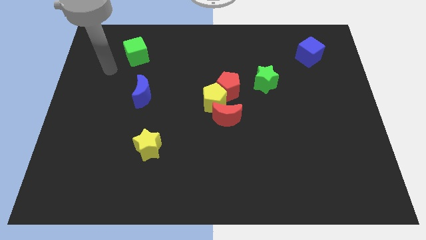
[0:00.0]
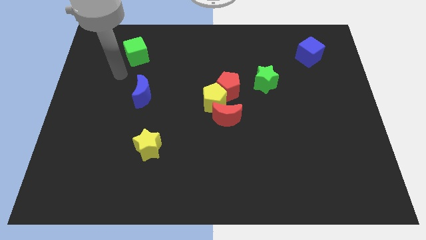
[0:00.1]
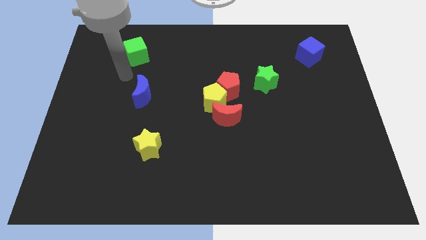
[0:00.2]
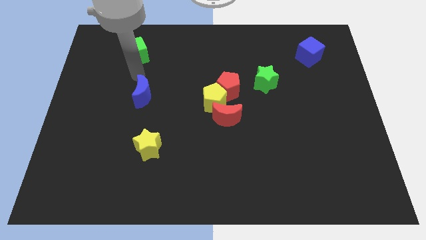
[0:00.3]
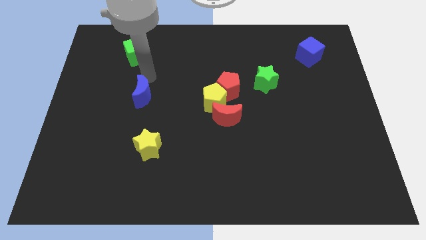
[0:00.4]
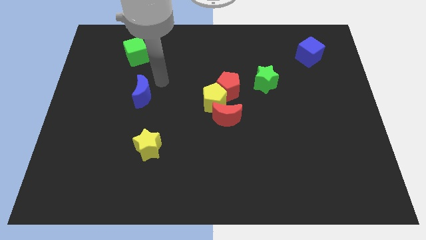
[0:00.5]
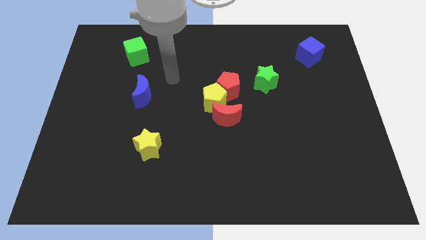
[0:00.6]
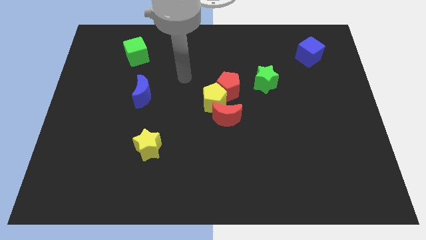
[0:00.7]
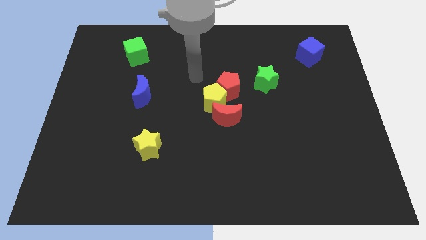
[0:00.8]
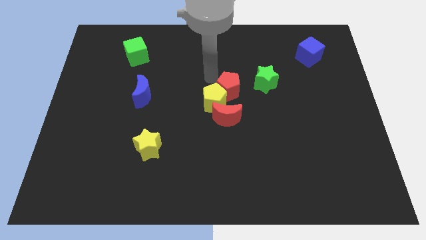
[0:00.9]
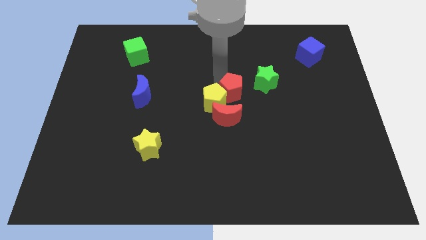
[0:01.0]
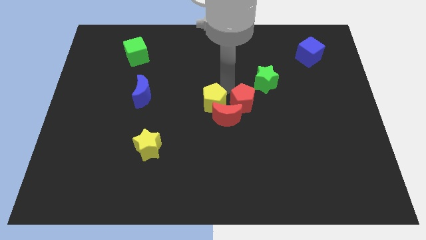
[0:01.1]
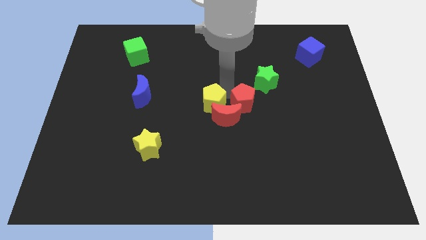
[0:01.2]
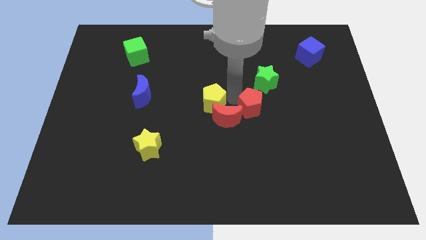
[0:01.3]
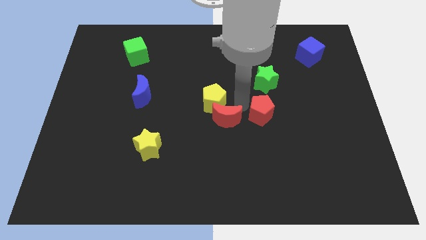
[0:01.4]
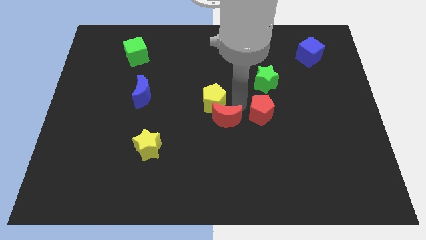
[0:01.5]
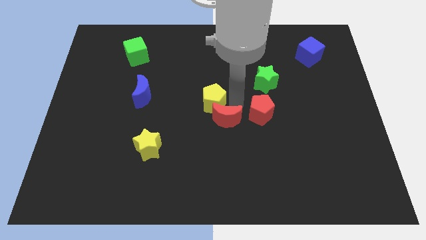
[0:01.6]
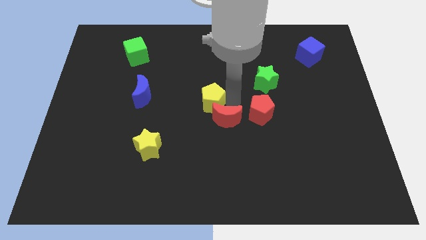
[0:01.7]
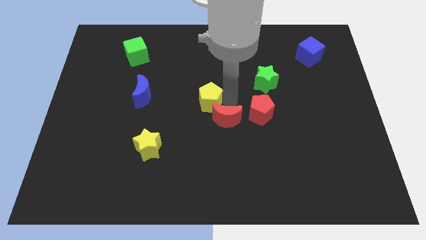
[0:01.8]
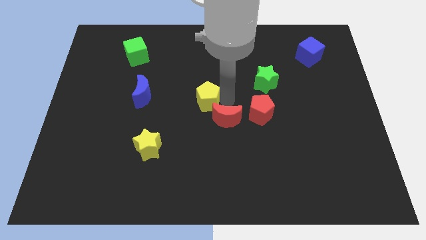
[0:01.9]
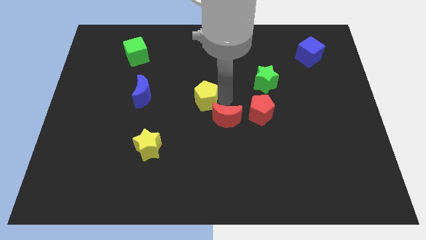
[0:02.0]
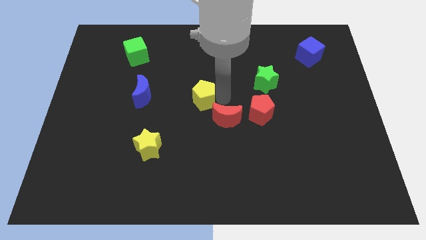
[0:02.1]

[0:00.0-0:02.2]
separate the yellow pentagon from the red pentagon and red moon

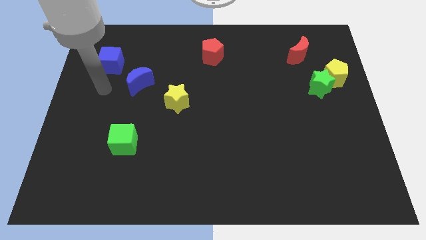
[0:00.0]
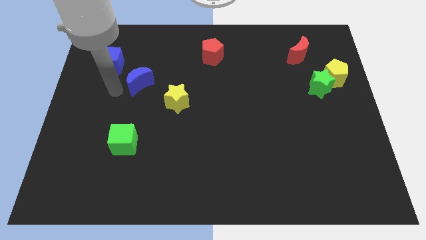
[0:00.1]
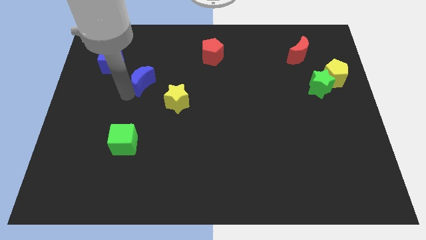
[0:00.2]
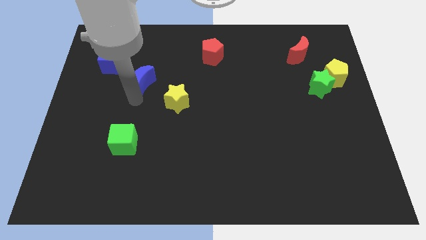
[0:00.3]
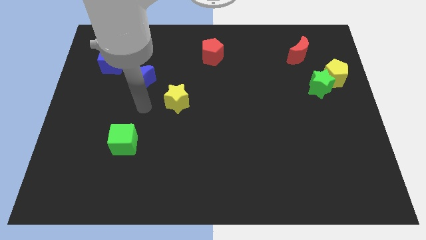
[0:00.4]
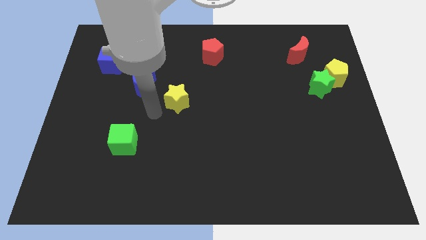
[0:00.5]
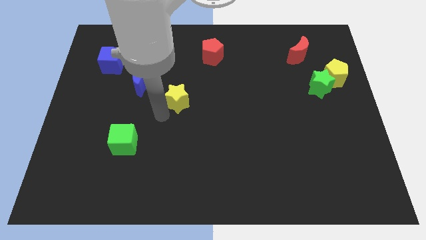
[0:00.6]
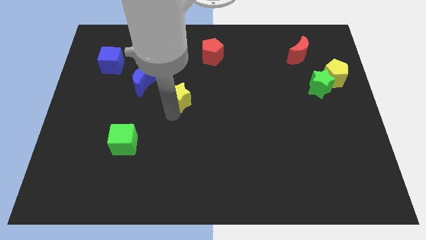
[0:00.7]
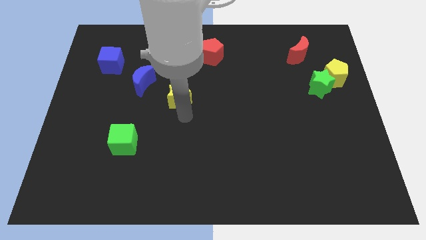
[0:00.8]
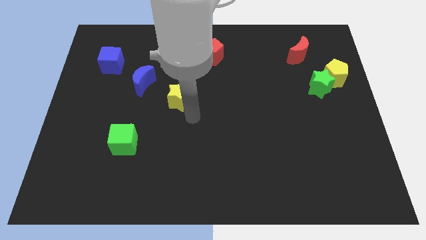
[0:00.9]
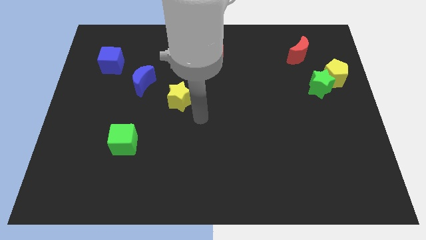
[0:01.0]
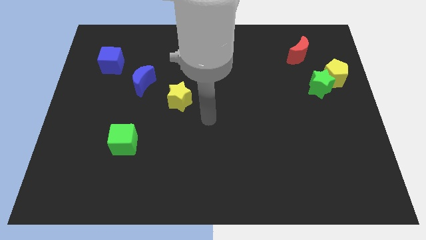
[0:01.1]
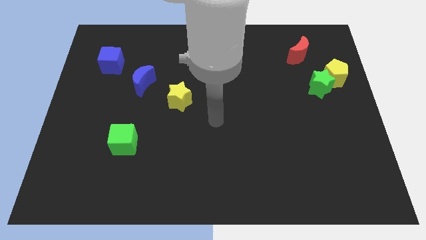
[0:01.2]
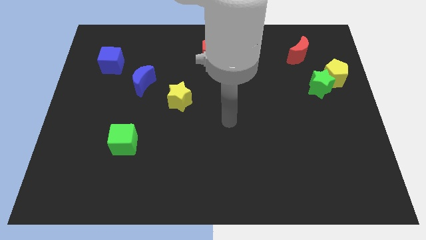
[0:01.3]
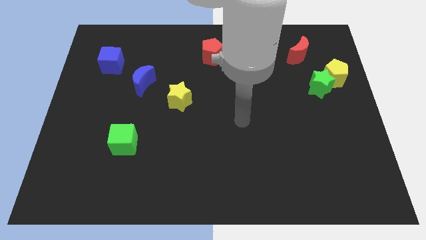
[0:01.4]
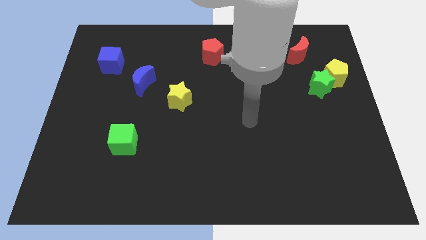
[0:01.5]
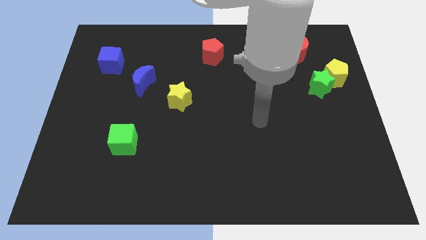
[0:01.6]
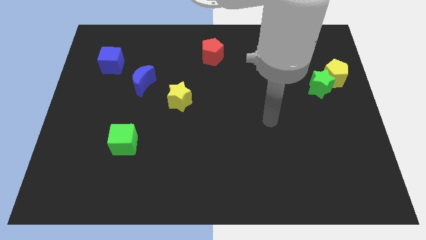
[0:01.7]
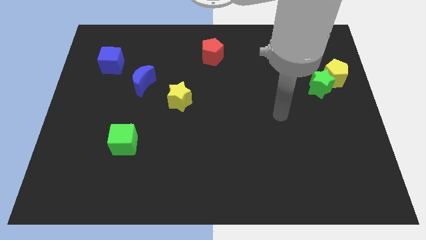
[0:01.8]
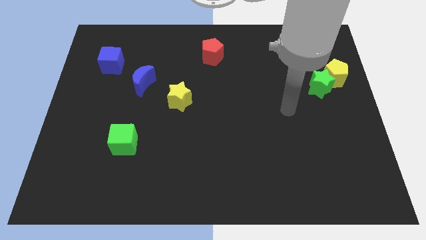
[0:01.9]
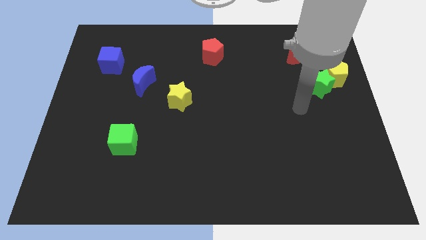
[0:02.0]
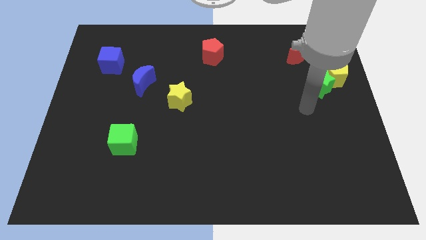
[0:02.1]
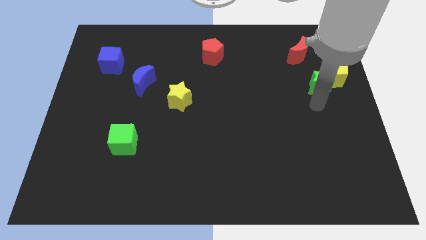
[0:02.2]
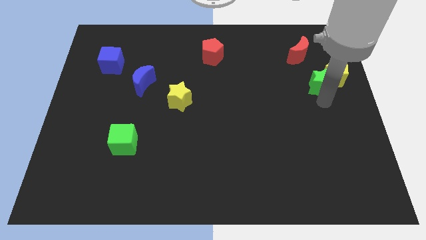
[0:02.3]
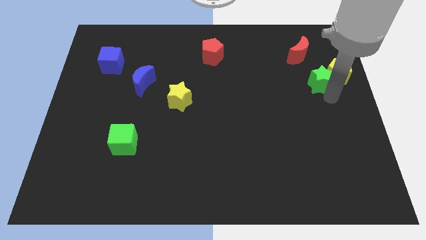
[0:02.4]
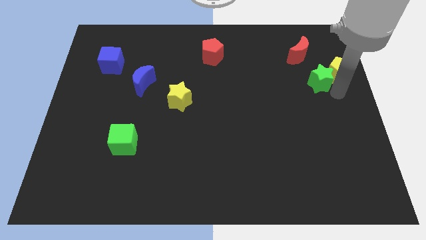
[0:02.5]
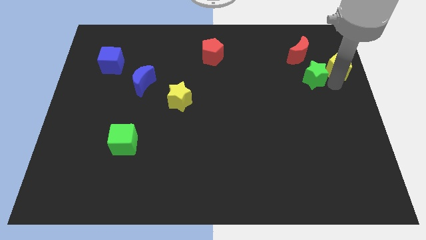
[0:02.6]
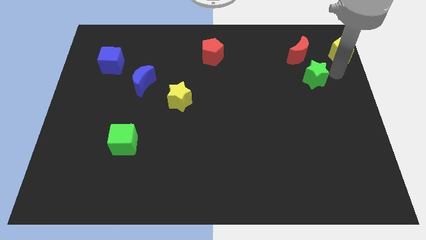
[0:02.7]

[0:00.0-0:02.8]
move the green star away from the yellow pentagon

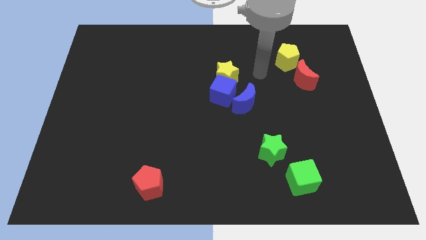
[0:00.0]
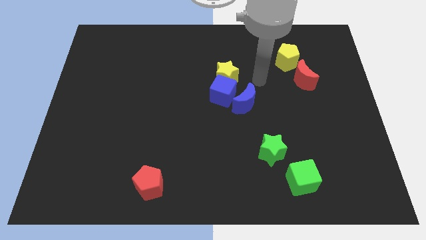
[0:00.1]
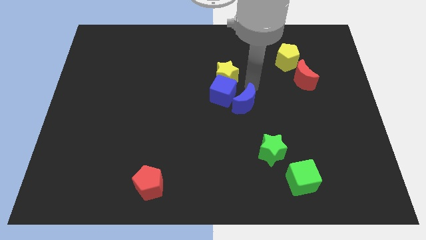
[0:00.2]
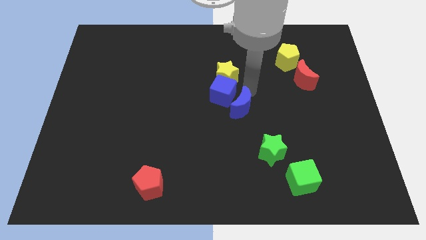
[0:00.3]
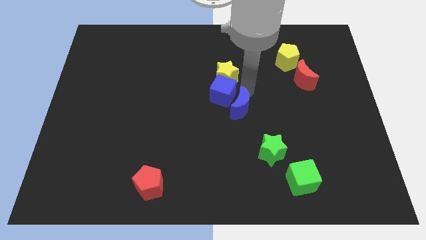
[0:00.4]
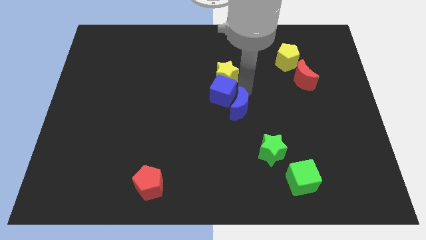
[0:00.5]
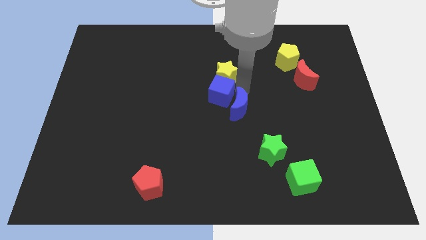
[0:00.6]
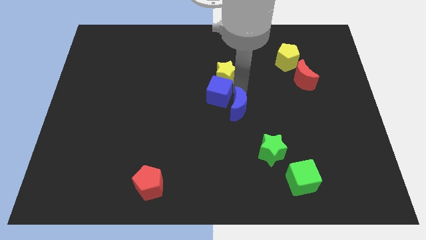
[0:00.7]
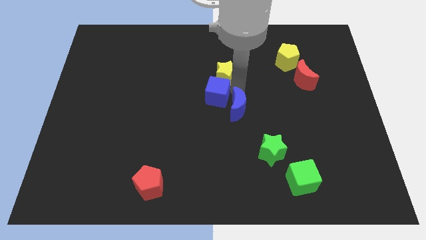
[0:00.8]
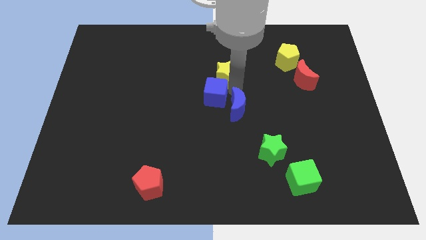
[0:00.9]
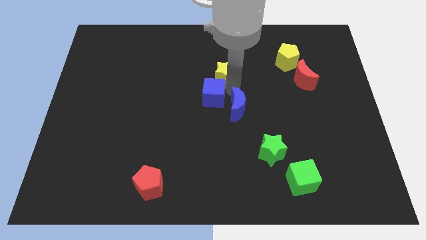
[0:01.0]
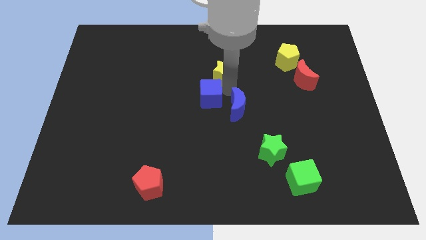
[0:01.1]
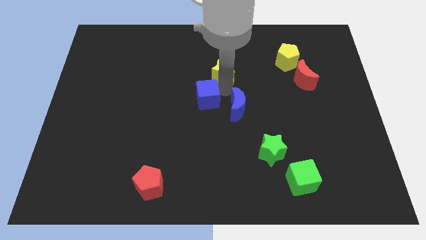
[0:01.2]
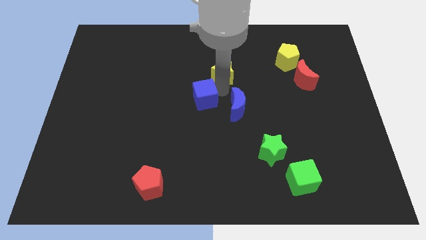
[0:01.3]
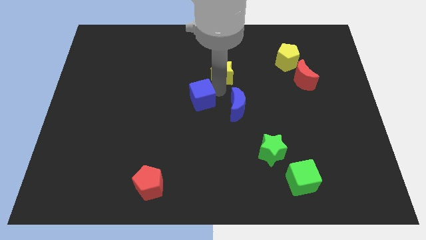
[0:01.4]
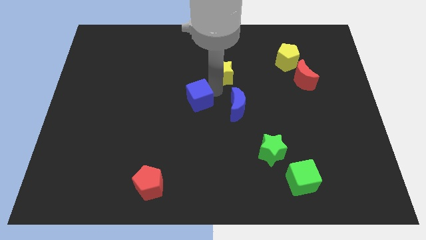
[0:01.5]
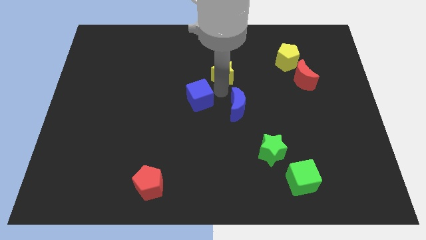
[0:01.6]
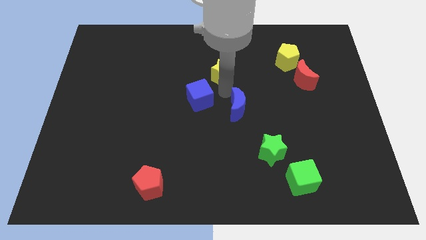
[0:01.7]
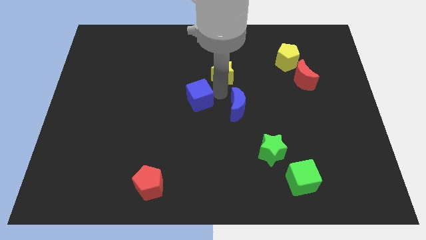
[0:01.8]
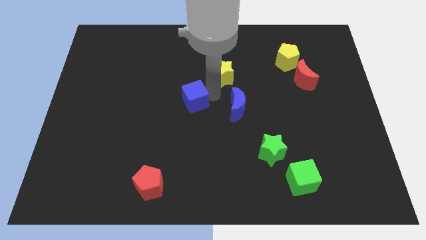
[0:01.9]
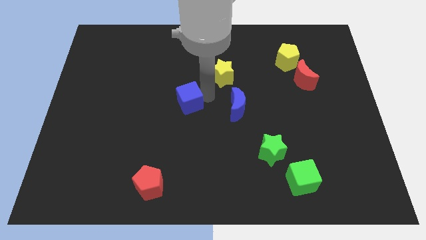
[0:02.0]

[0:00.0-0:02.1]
separate the blue cube from the yellow star and blue moon

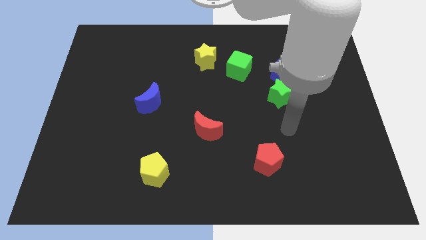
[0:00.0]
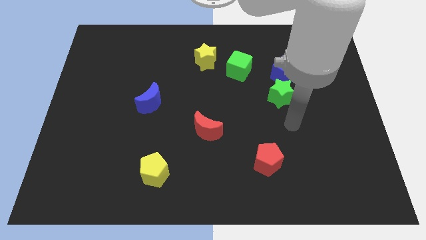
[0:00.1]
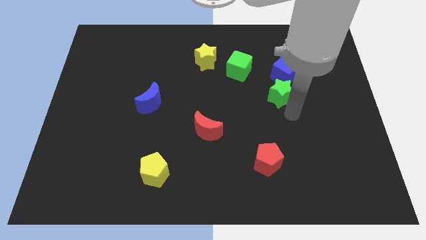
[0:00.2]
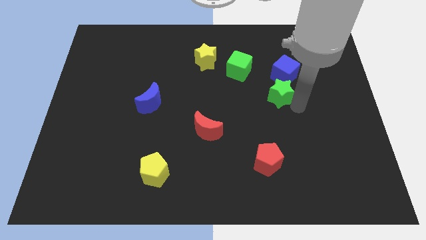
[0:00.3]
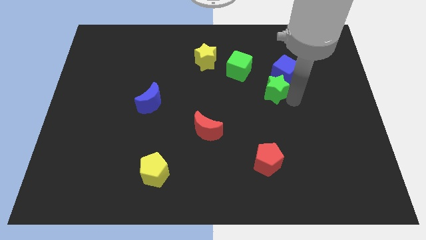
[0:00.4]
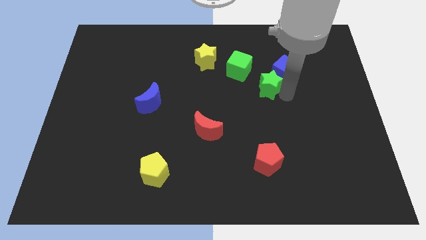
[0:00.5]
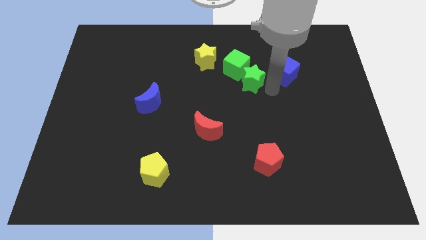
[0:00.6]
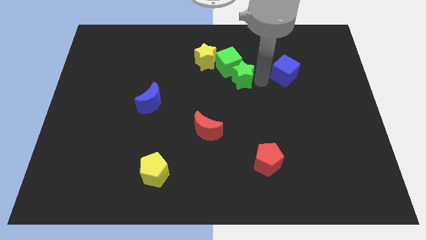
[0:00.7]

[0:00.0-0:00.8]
pull the blue cube apart from the green star

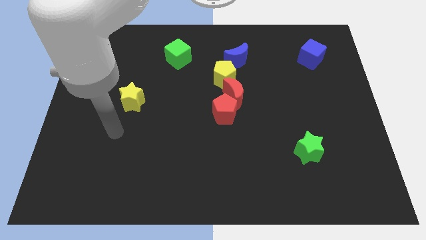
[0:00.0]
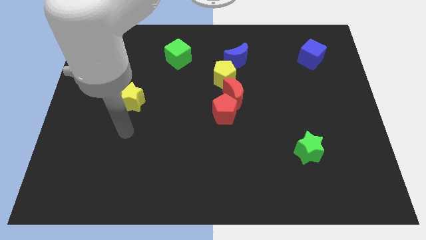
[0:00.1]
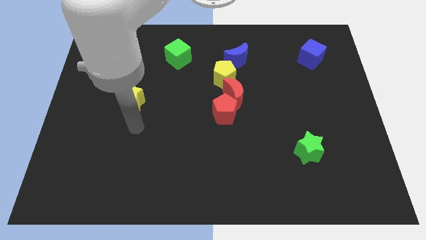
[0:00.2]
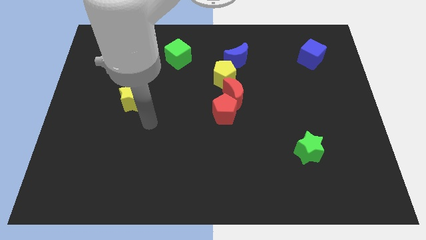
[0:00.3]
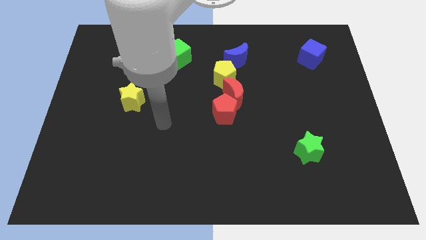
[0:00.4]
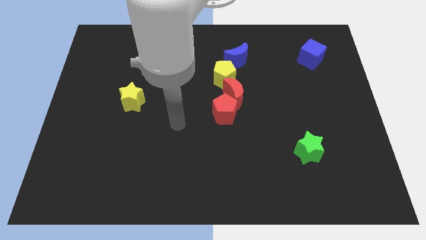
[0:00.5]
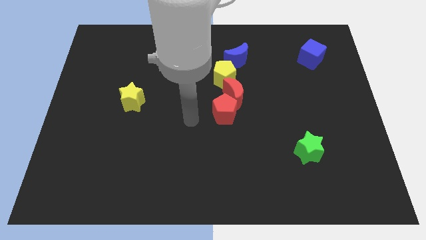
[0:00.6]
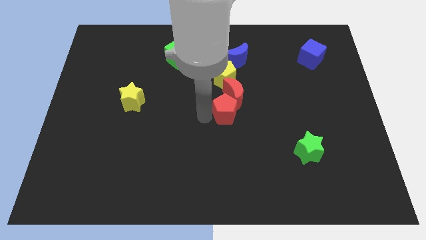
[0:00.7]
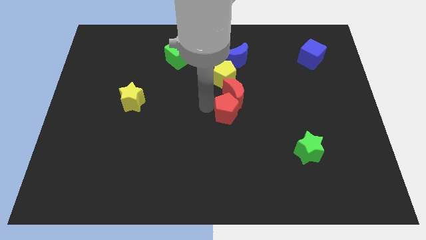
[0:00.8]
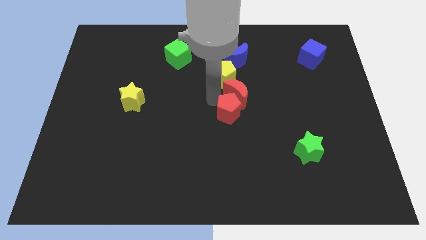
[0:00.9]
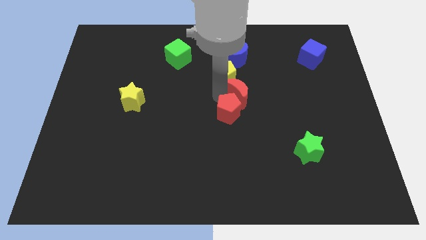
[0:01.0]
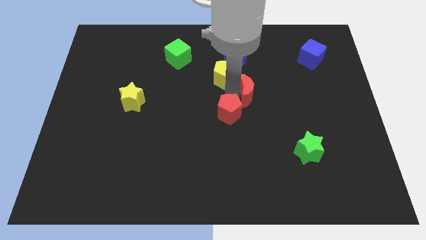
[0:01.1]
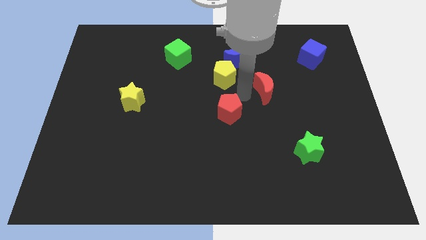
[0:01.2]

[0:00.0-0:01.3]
separate the red pentagon from the red moon

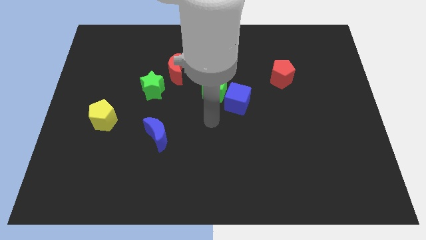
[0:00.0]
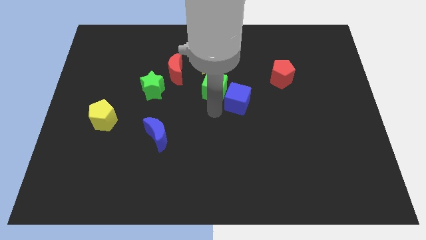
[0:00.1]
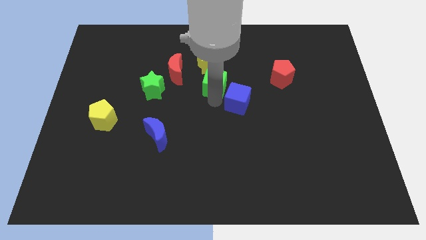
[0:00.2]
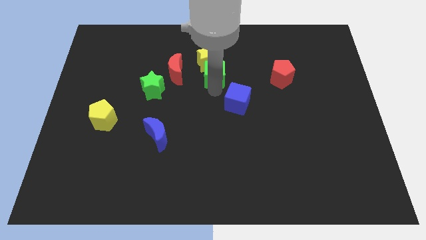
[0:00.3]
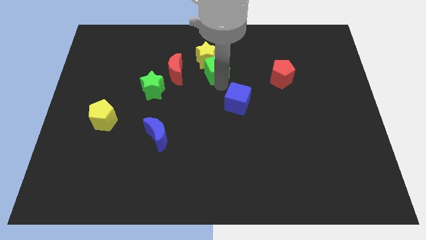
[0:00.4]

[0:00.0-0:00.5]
pull the blue cube apart from the green cube
